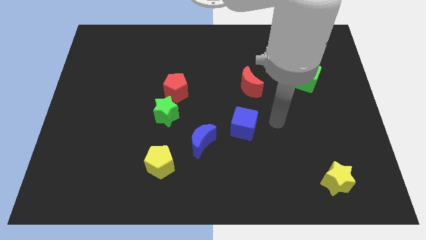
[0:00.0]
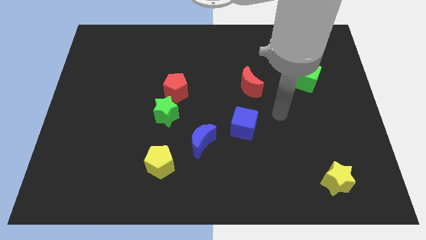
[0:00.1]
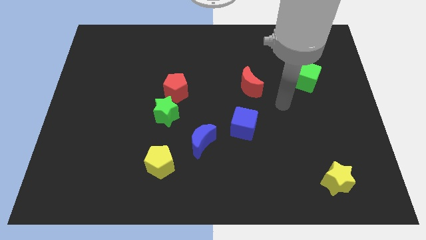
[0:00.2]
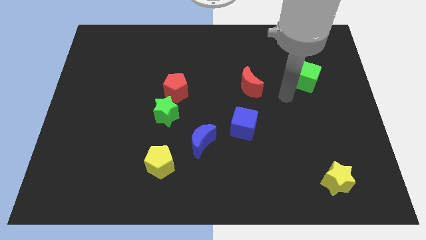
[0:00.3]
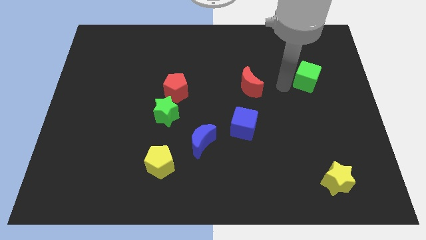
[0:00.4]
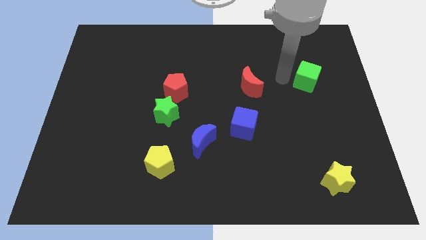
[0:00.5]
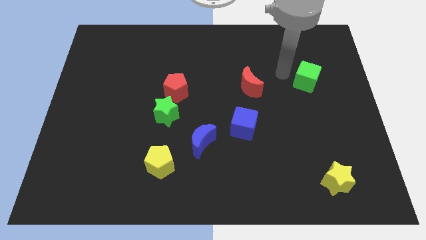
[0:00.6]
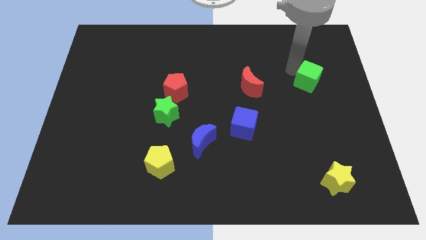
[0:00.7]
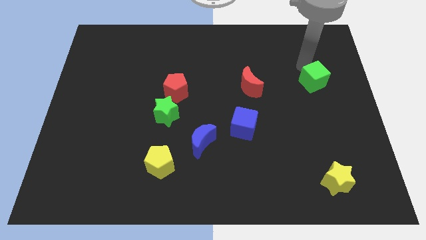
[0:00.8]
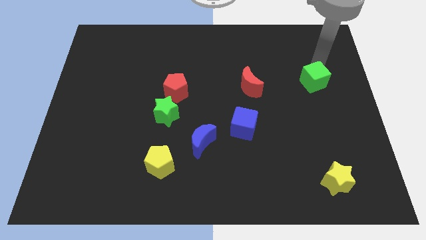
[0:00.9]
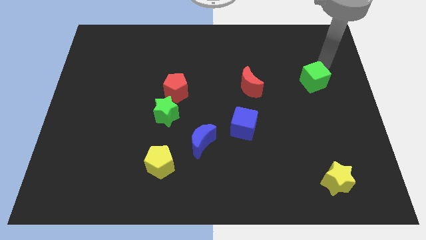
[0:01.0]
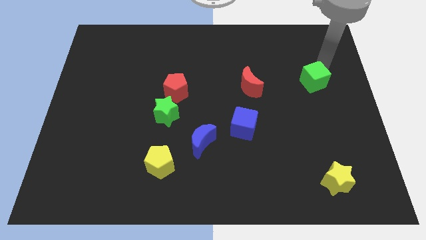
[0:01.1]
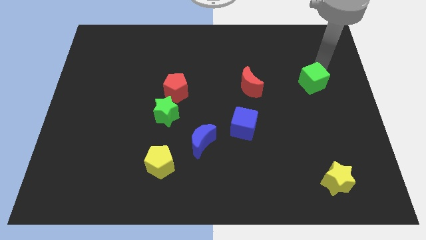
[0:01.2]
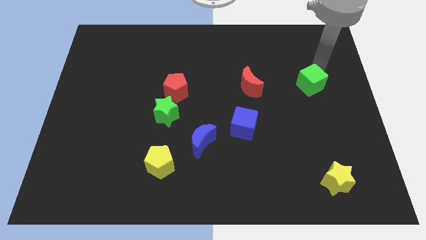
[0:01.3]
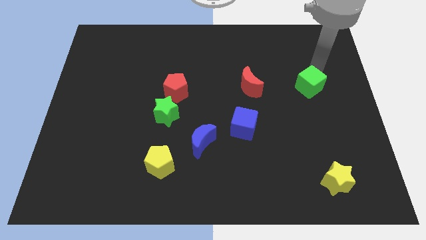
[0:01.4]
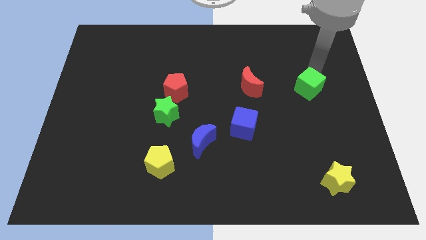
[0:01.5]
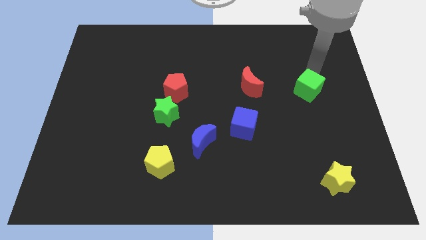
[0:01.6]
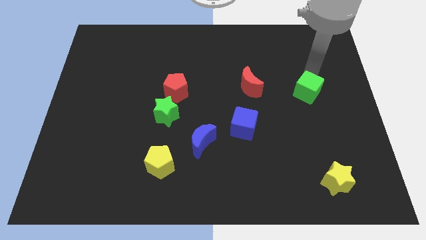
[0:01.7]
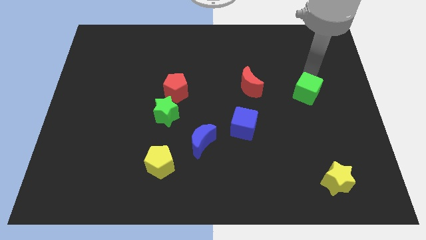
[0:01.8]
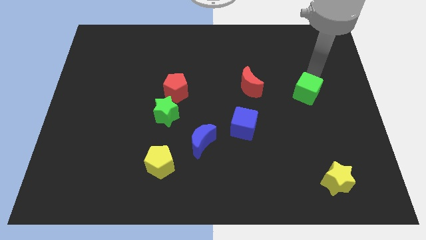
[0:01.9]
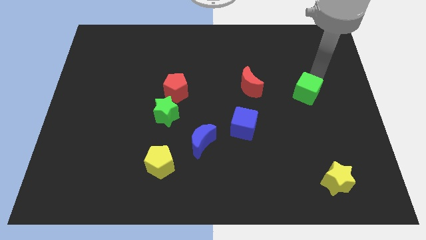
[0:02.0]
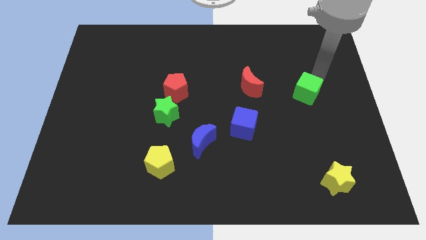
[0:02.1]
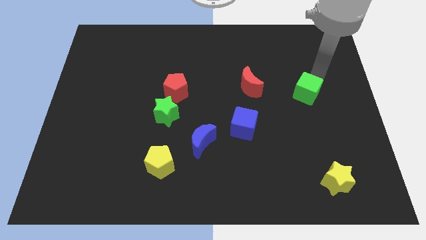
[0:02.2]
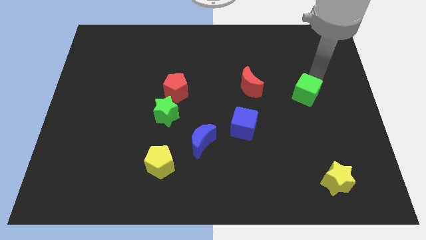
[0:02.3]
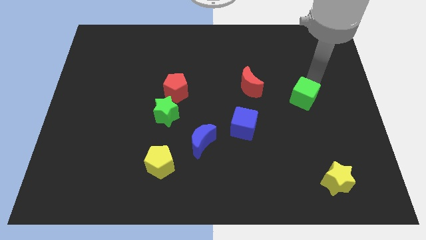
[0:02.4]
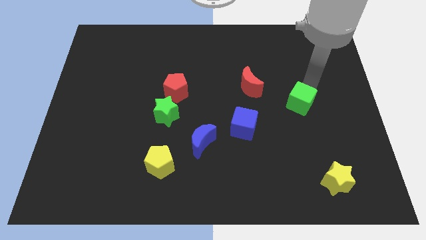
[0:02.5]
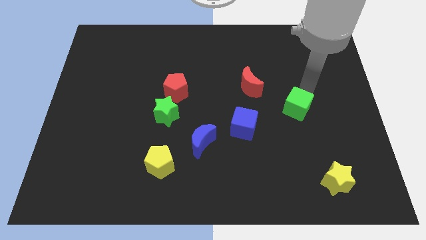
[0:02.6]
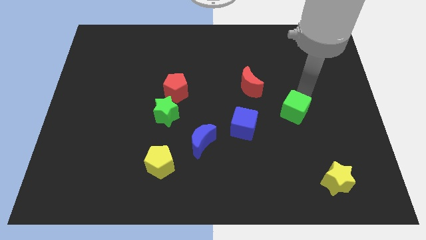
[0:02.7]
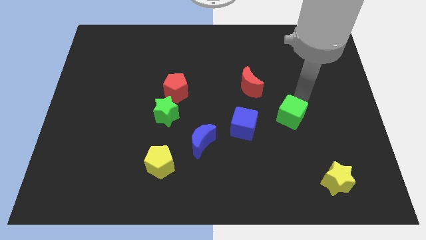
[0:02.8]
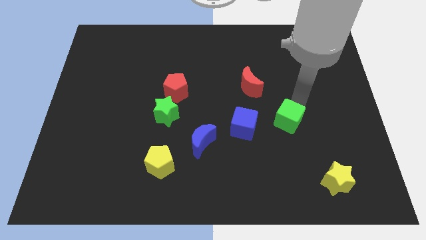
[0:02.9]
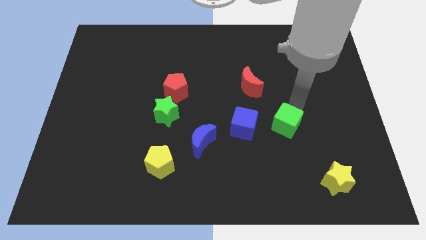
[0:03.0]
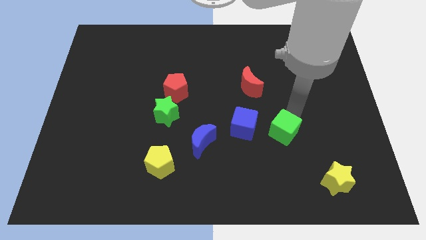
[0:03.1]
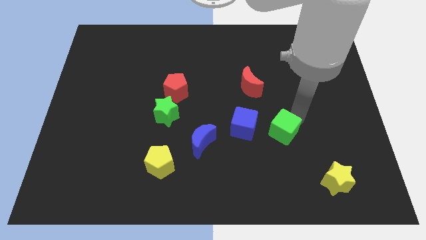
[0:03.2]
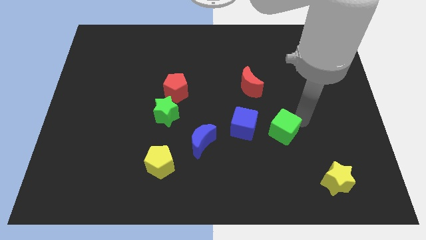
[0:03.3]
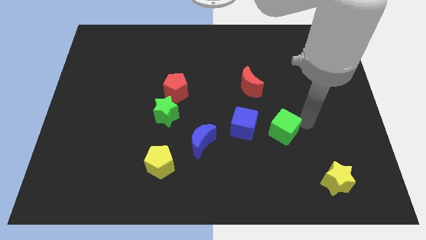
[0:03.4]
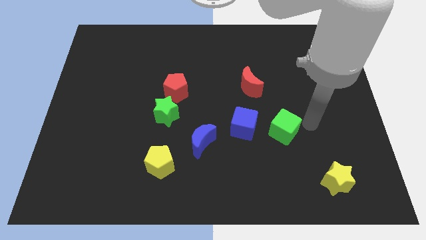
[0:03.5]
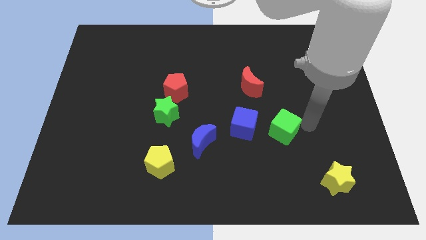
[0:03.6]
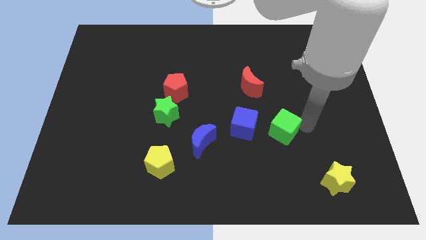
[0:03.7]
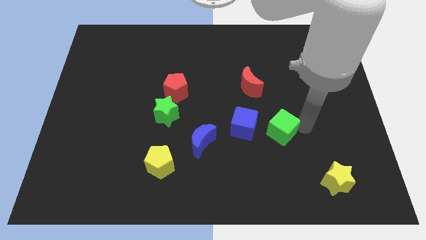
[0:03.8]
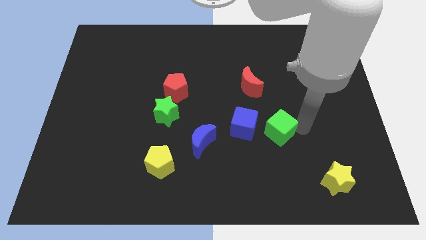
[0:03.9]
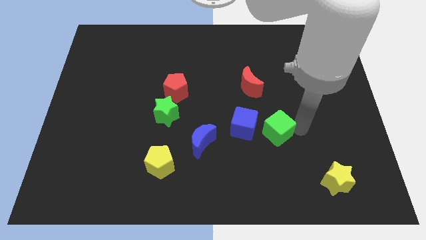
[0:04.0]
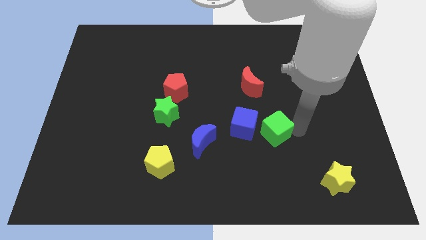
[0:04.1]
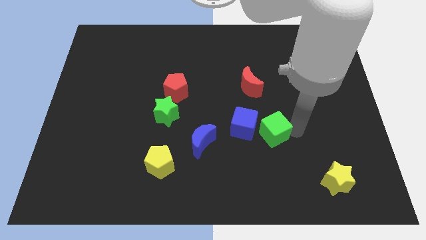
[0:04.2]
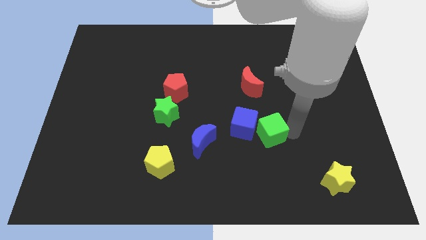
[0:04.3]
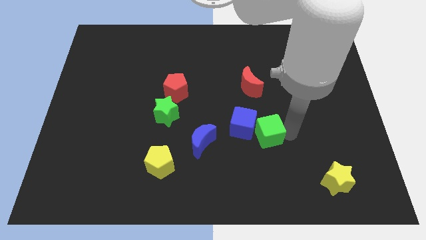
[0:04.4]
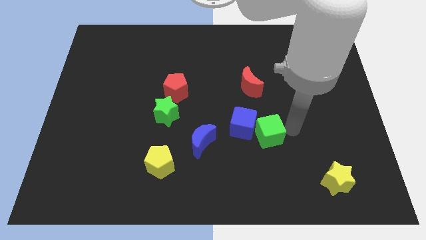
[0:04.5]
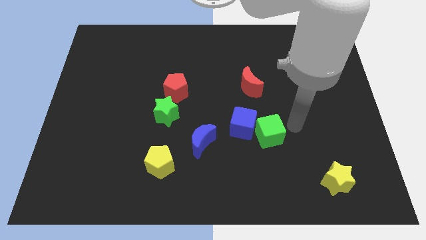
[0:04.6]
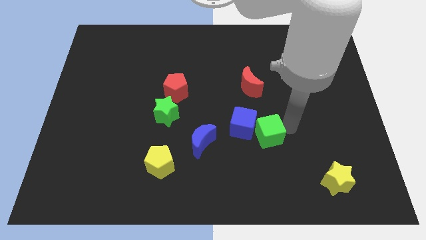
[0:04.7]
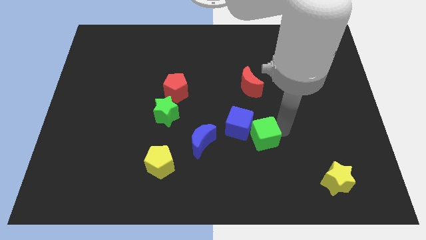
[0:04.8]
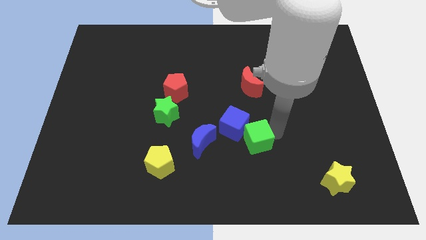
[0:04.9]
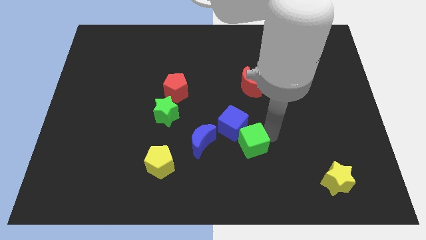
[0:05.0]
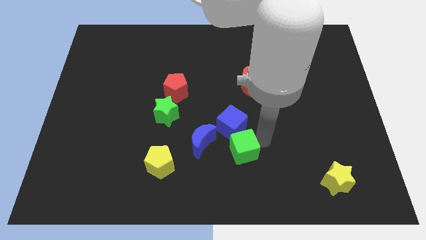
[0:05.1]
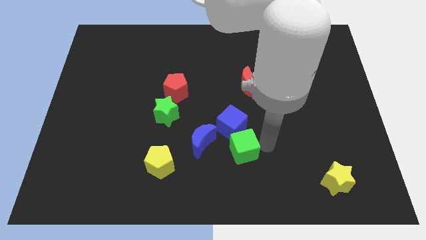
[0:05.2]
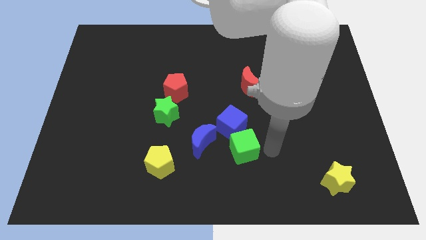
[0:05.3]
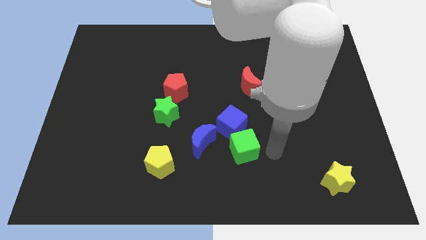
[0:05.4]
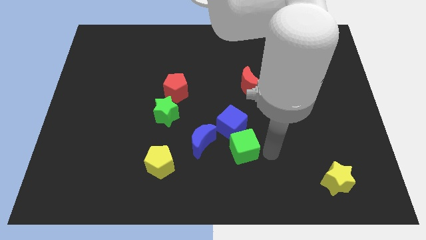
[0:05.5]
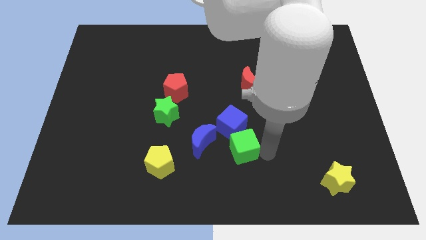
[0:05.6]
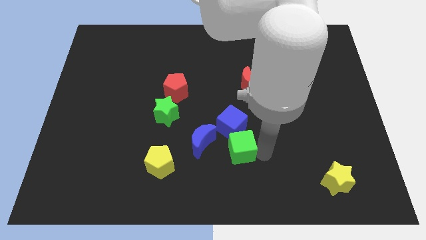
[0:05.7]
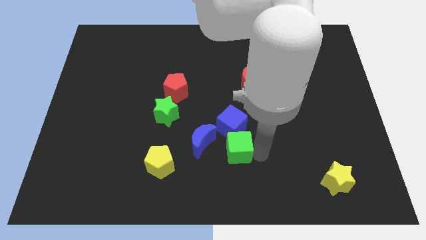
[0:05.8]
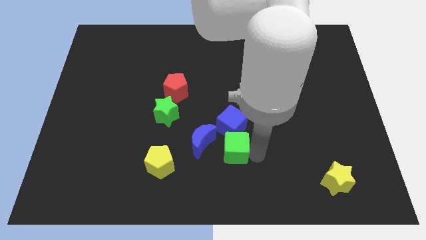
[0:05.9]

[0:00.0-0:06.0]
move the green cube to the bottom left of the blue cube

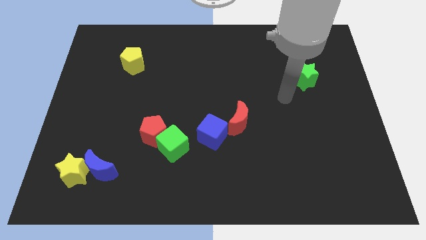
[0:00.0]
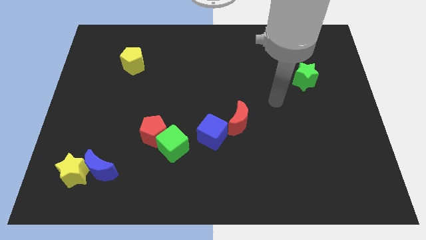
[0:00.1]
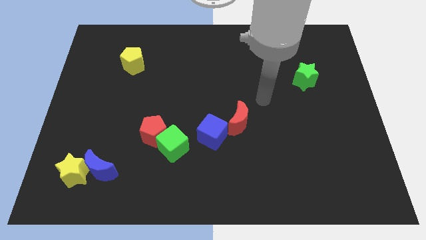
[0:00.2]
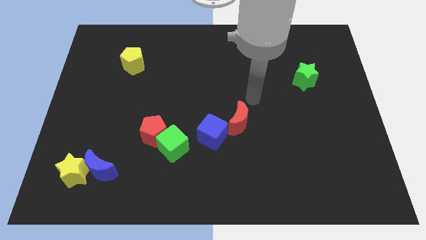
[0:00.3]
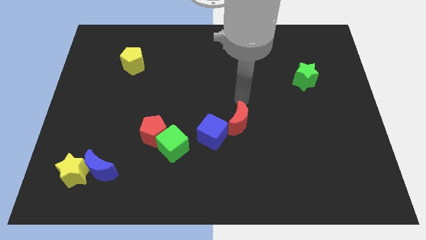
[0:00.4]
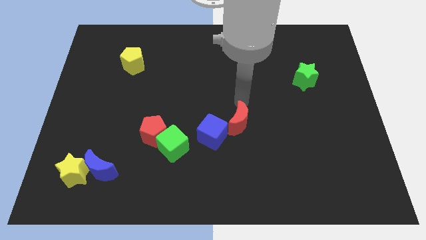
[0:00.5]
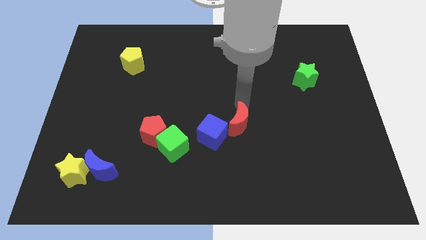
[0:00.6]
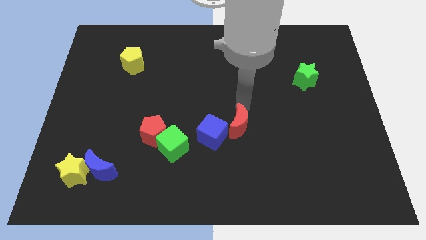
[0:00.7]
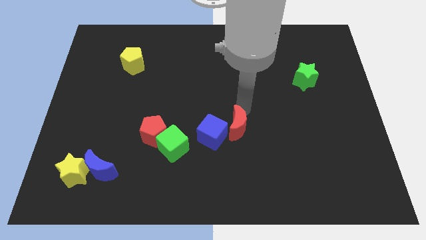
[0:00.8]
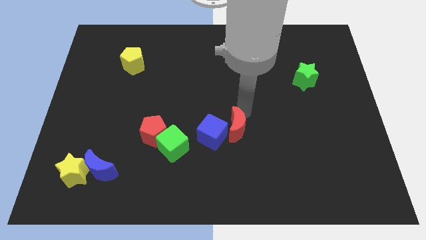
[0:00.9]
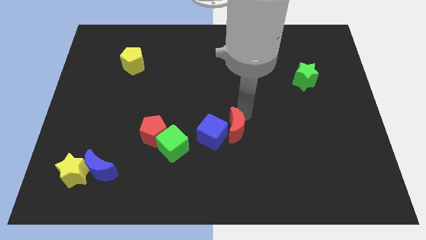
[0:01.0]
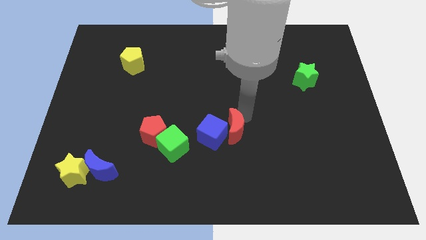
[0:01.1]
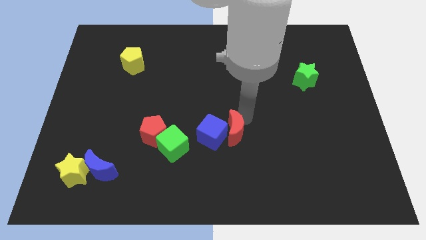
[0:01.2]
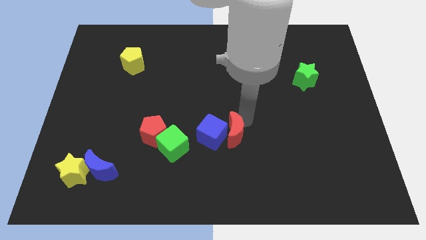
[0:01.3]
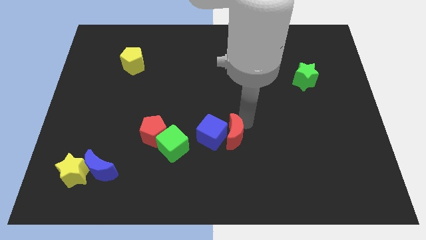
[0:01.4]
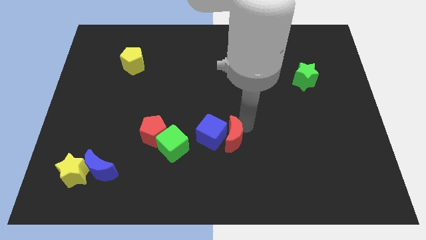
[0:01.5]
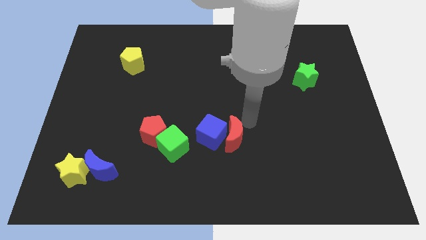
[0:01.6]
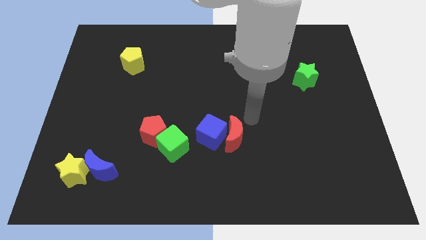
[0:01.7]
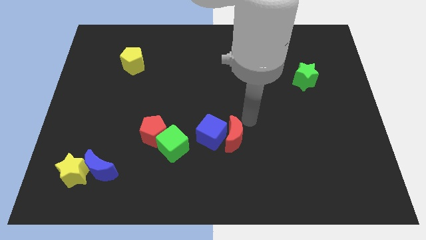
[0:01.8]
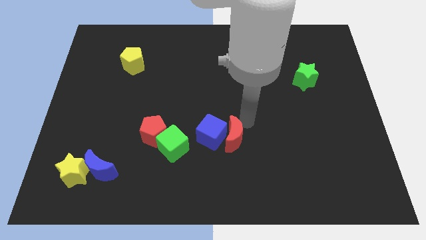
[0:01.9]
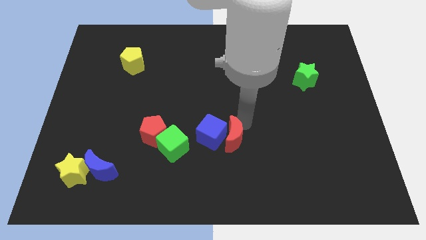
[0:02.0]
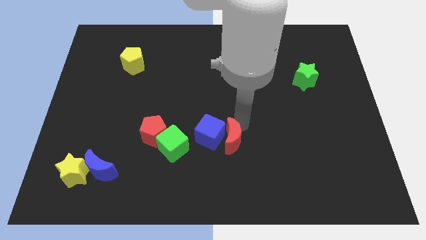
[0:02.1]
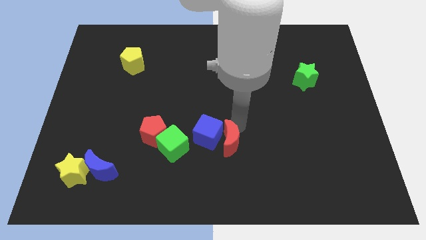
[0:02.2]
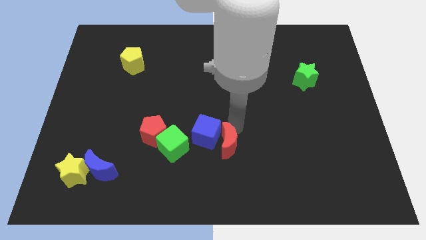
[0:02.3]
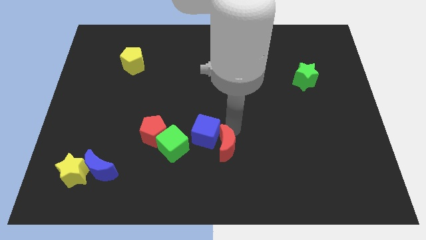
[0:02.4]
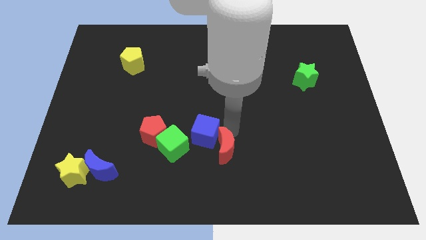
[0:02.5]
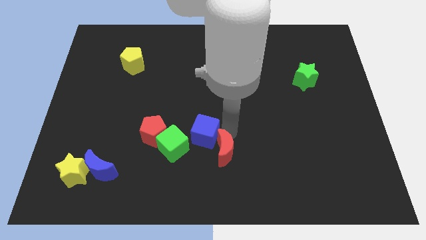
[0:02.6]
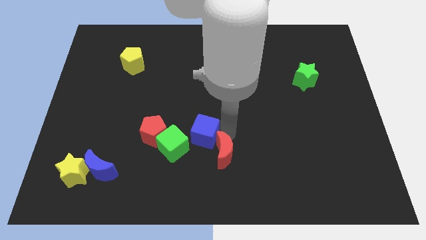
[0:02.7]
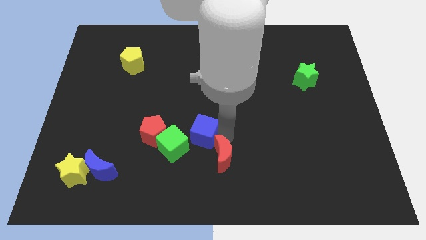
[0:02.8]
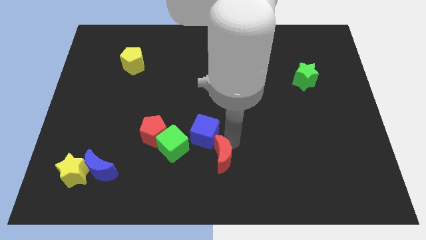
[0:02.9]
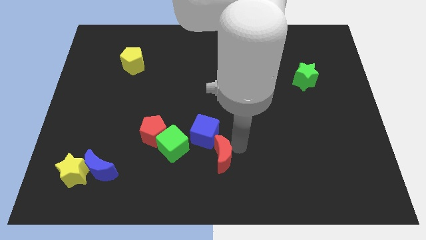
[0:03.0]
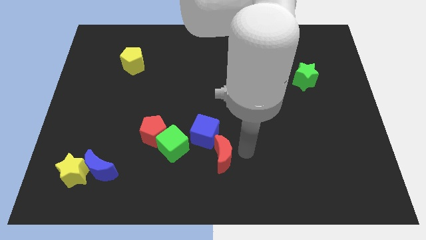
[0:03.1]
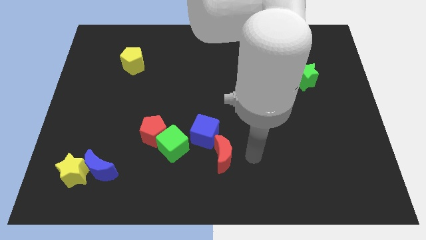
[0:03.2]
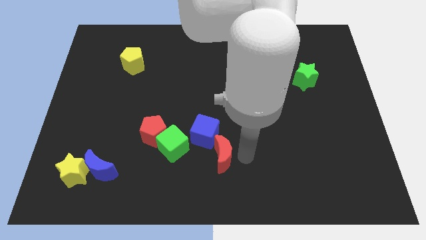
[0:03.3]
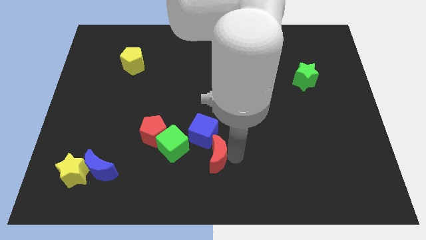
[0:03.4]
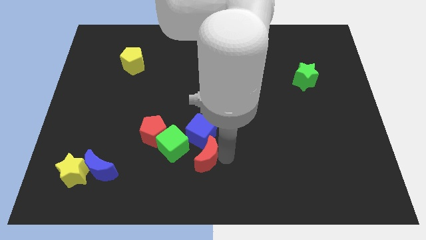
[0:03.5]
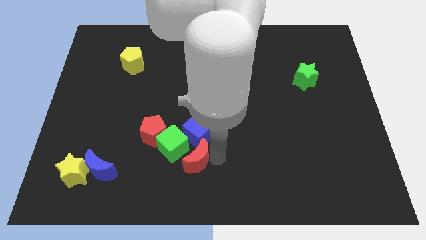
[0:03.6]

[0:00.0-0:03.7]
put the red moon to the bottom left of the blue cube
